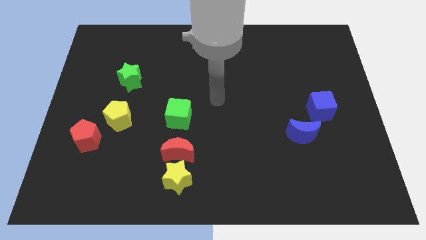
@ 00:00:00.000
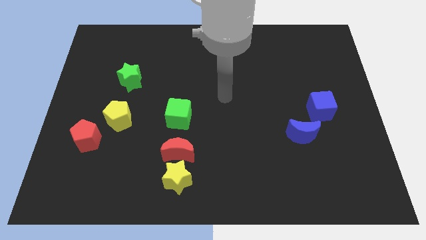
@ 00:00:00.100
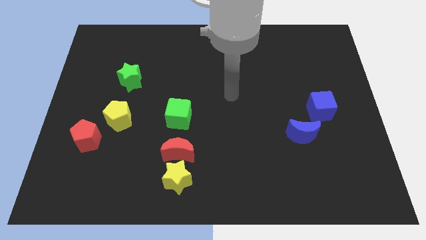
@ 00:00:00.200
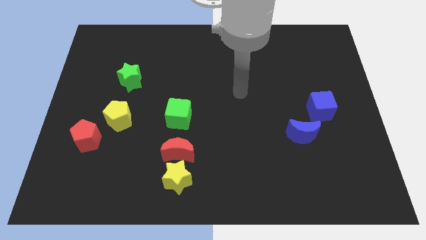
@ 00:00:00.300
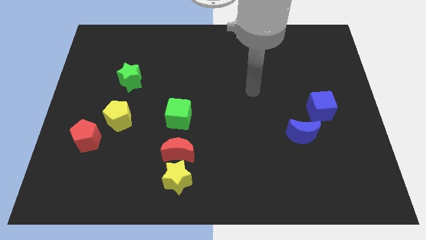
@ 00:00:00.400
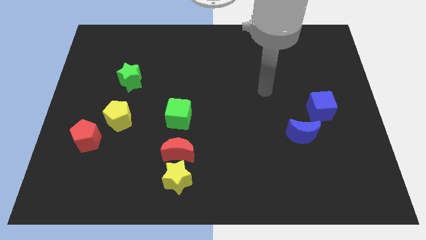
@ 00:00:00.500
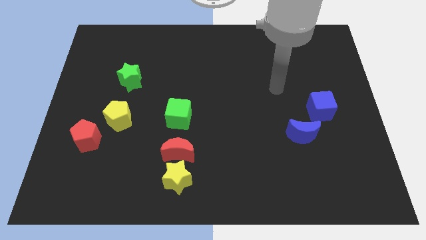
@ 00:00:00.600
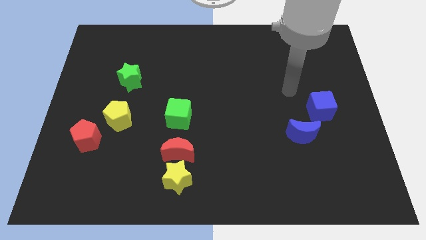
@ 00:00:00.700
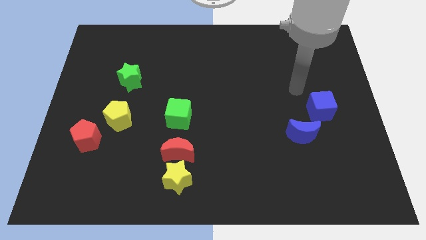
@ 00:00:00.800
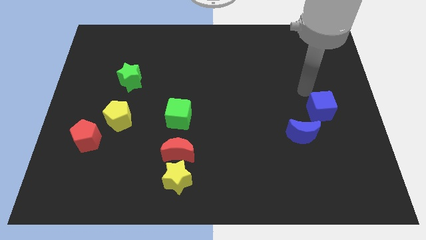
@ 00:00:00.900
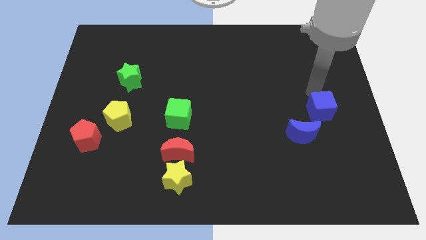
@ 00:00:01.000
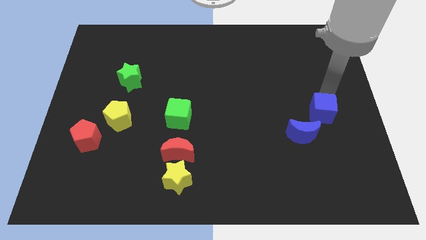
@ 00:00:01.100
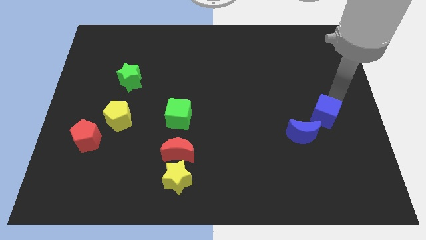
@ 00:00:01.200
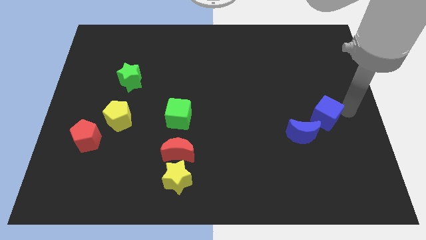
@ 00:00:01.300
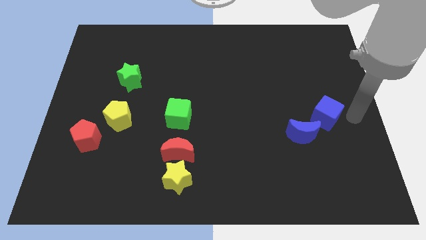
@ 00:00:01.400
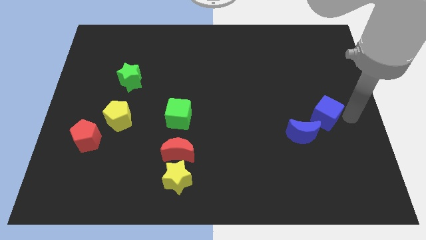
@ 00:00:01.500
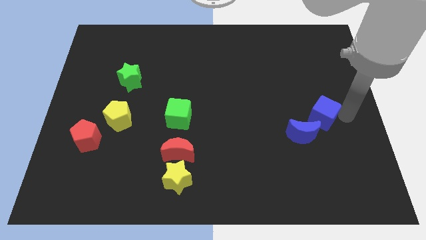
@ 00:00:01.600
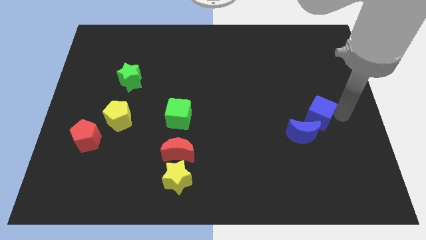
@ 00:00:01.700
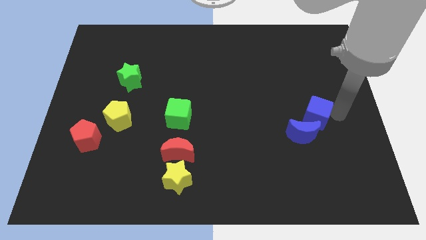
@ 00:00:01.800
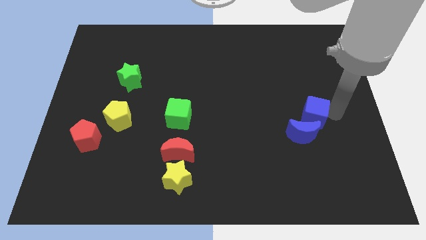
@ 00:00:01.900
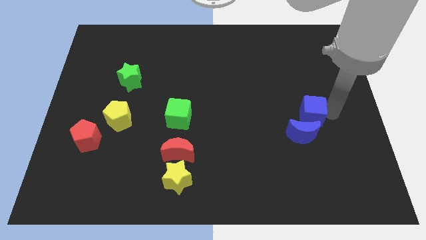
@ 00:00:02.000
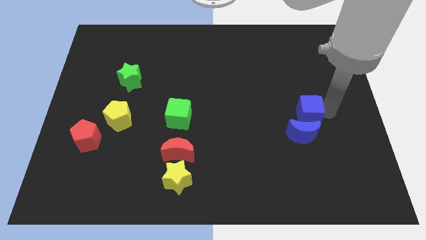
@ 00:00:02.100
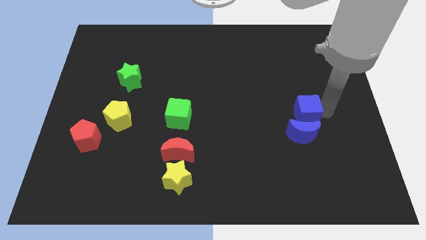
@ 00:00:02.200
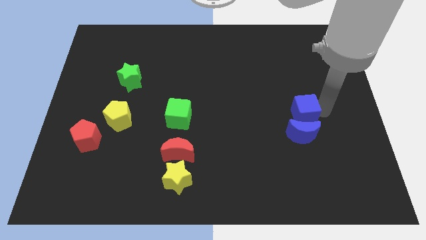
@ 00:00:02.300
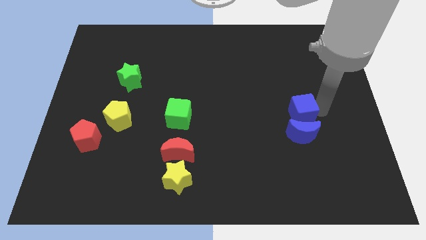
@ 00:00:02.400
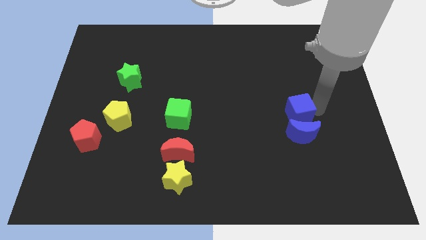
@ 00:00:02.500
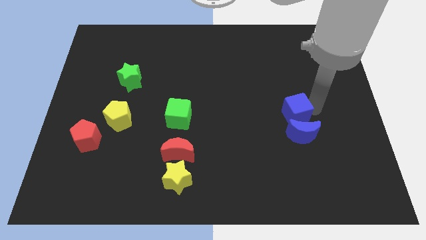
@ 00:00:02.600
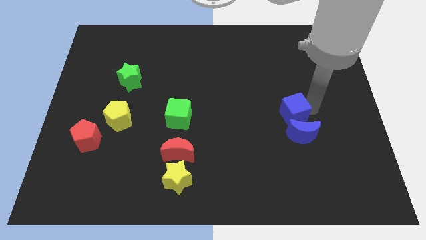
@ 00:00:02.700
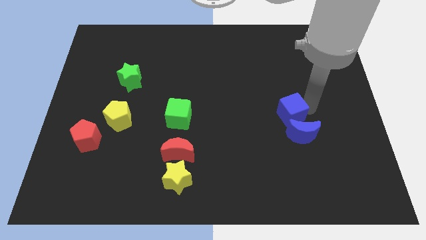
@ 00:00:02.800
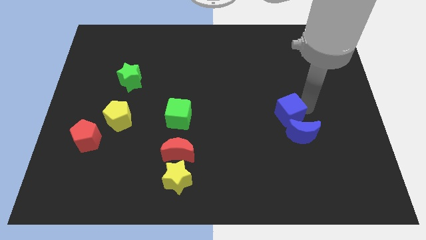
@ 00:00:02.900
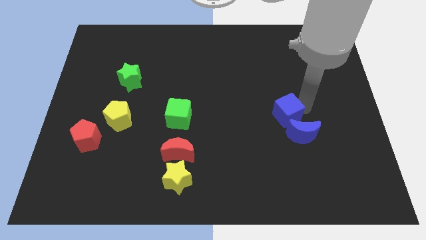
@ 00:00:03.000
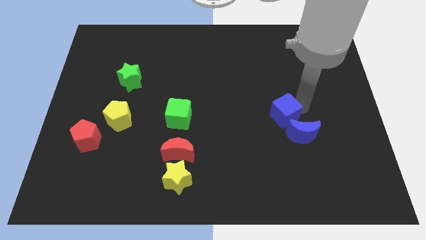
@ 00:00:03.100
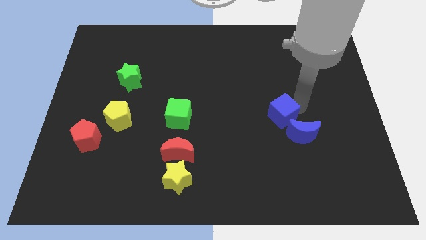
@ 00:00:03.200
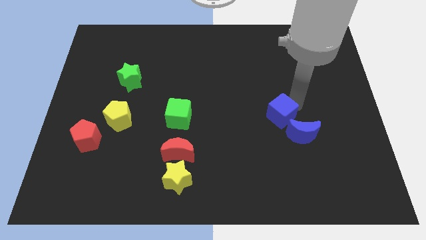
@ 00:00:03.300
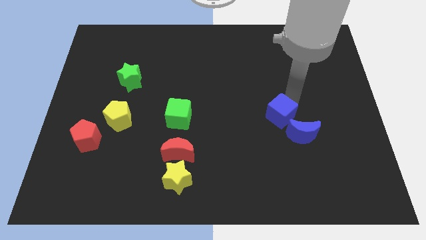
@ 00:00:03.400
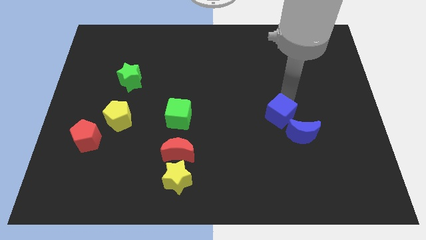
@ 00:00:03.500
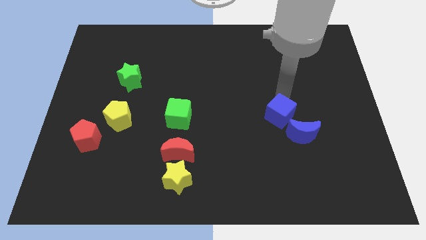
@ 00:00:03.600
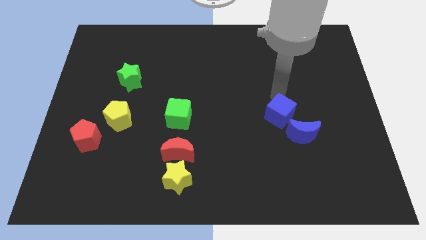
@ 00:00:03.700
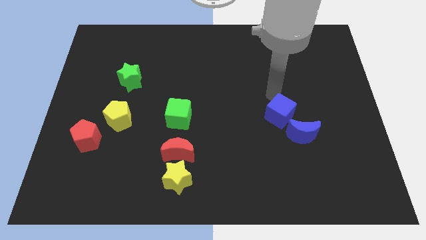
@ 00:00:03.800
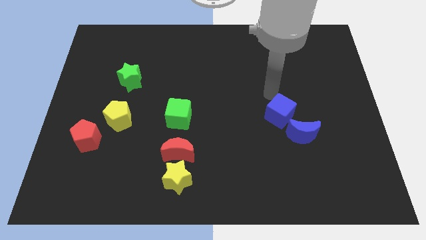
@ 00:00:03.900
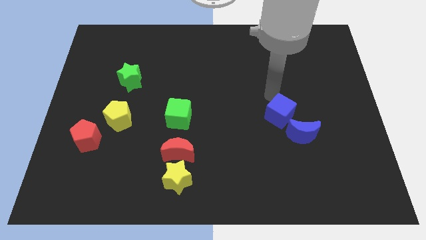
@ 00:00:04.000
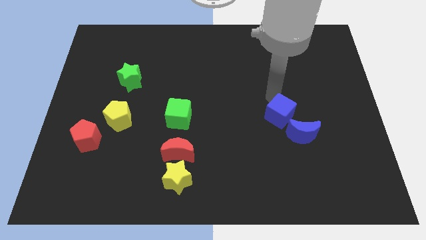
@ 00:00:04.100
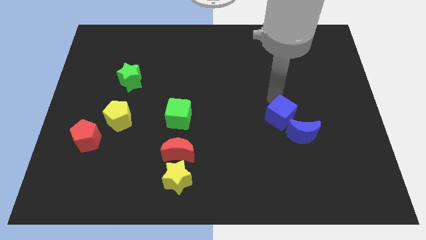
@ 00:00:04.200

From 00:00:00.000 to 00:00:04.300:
push the blue cube a bit down and then to the left

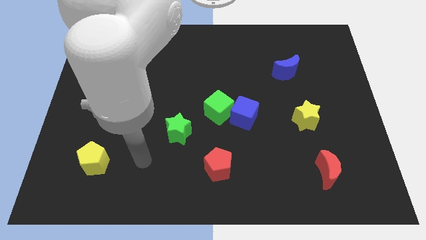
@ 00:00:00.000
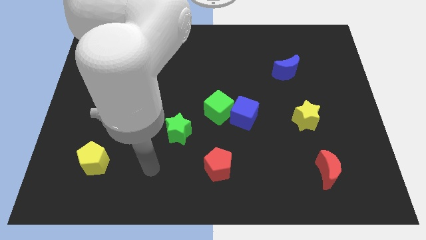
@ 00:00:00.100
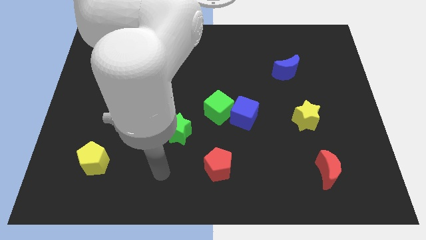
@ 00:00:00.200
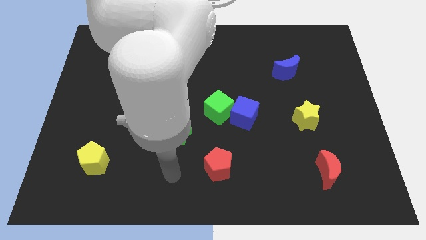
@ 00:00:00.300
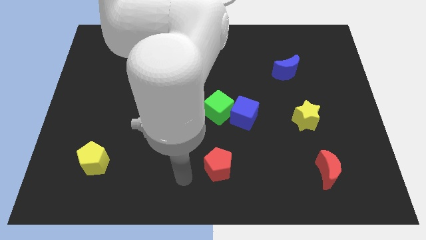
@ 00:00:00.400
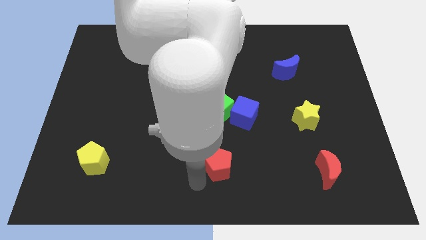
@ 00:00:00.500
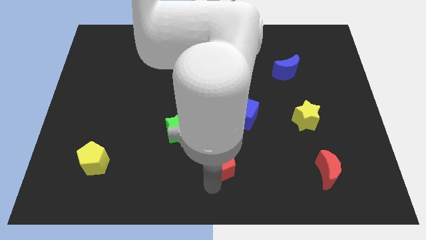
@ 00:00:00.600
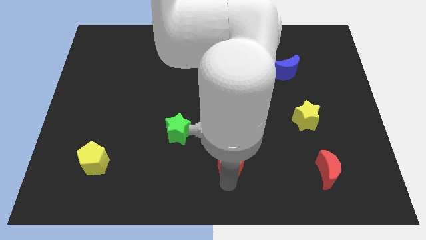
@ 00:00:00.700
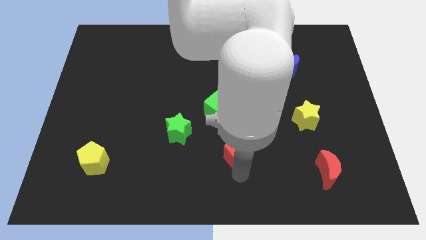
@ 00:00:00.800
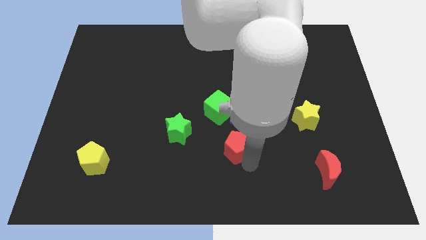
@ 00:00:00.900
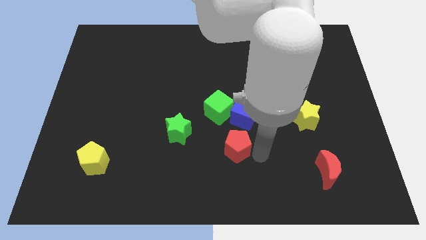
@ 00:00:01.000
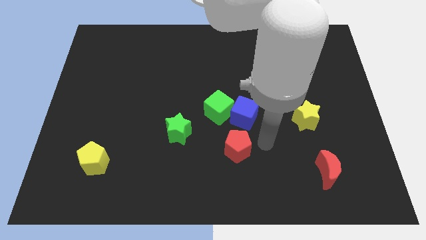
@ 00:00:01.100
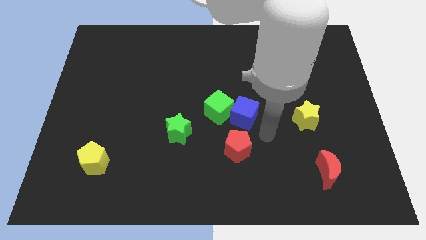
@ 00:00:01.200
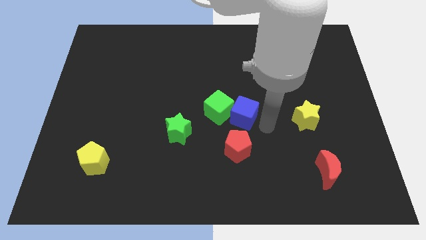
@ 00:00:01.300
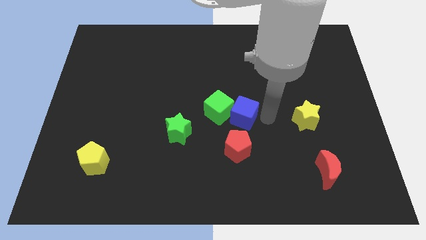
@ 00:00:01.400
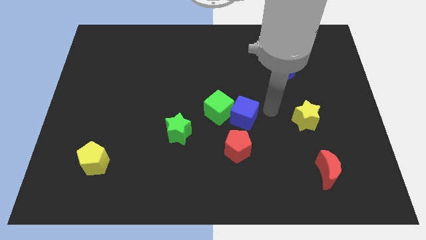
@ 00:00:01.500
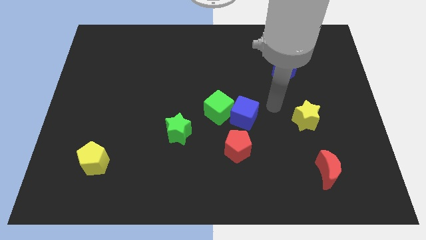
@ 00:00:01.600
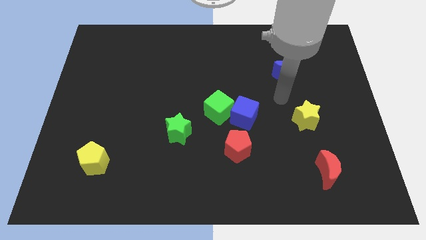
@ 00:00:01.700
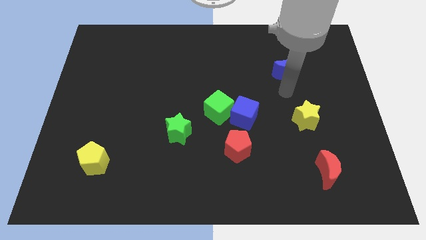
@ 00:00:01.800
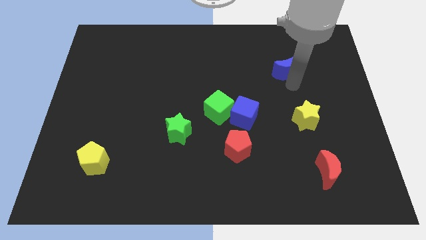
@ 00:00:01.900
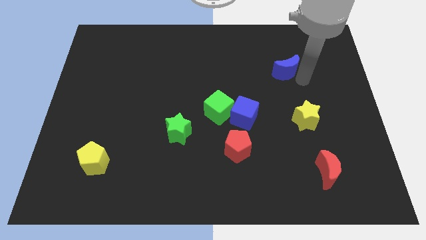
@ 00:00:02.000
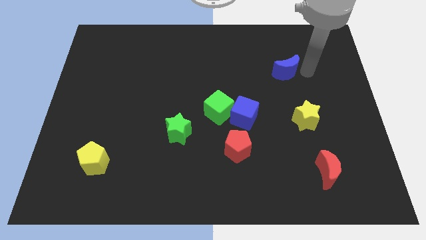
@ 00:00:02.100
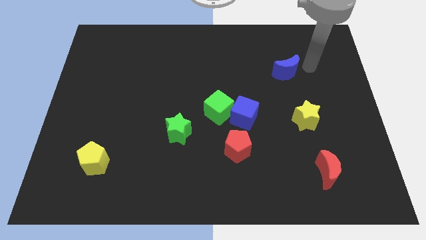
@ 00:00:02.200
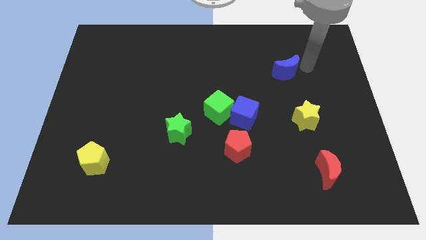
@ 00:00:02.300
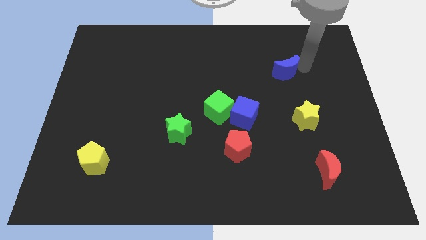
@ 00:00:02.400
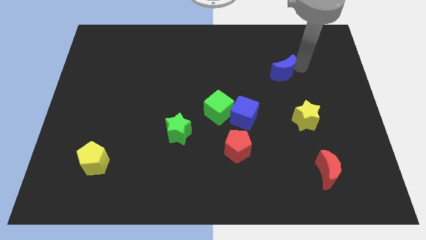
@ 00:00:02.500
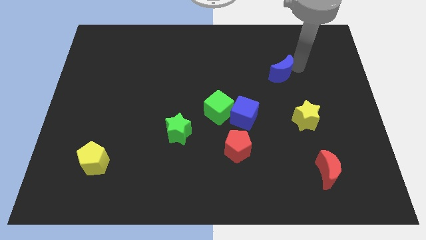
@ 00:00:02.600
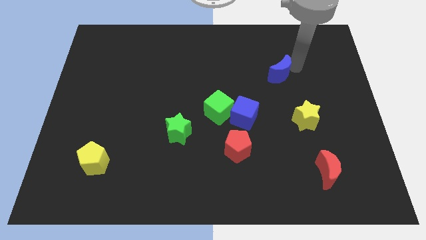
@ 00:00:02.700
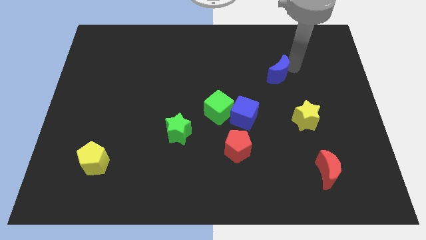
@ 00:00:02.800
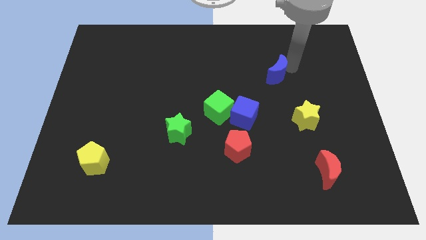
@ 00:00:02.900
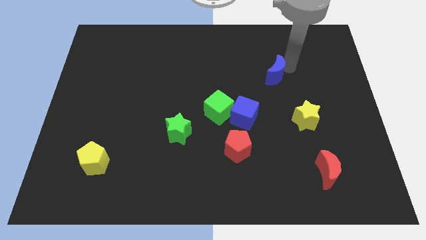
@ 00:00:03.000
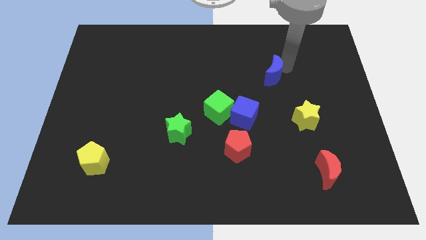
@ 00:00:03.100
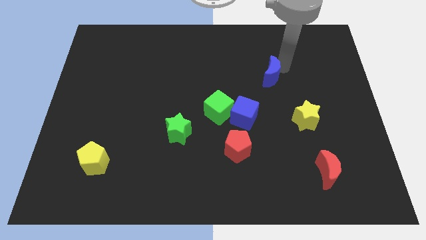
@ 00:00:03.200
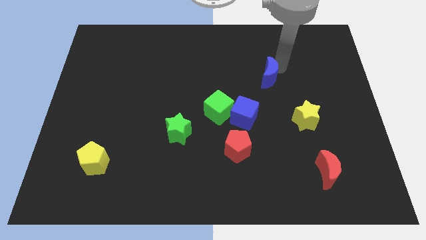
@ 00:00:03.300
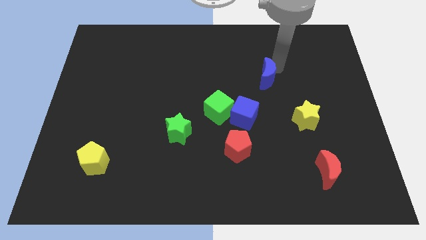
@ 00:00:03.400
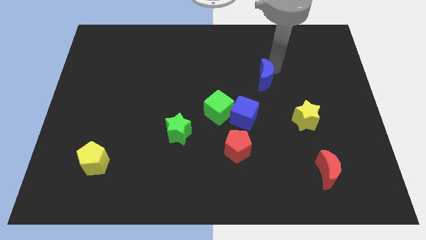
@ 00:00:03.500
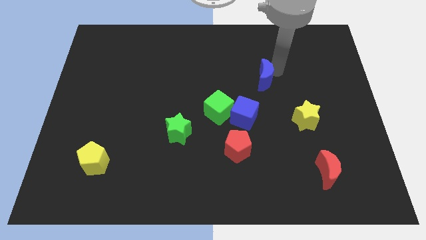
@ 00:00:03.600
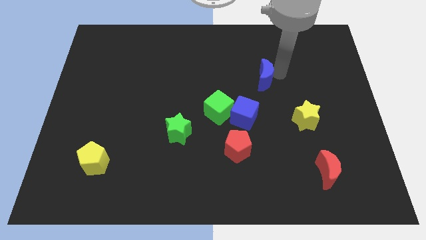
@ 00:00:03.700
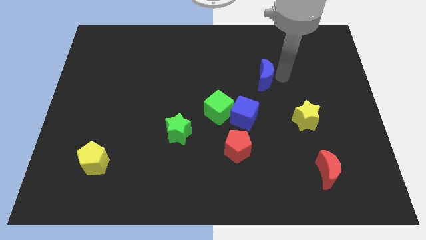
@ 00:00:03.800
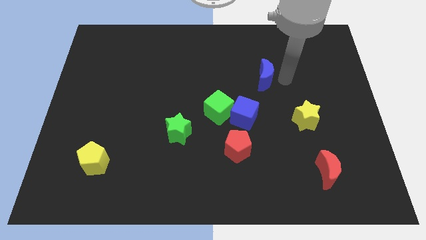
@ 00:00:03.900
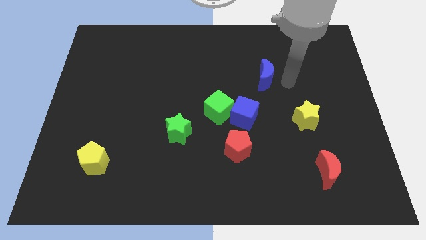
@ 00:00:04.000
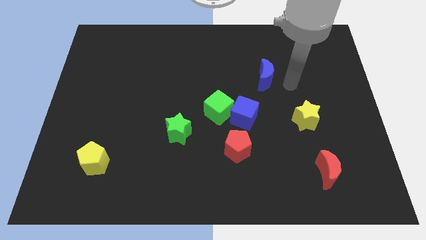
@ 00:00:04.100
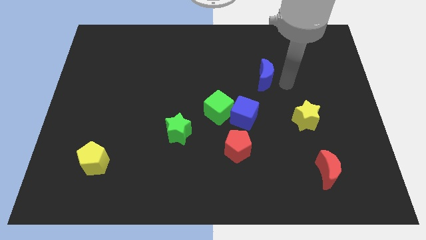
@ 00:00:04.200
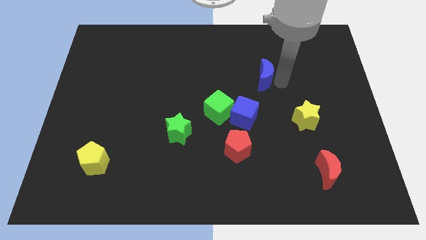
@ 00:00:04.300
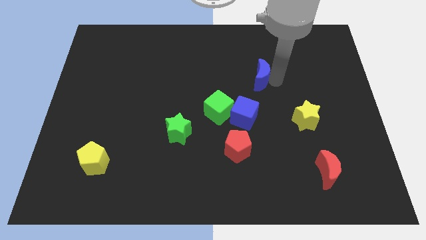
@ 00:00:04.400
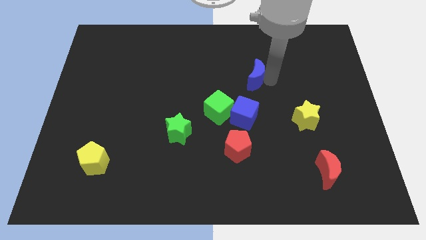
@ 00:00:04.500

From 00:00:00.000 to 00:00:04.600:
slightly push the blue moon to the left
